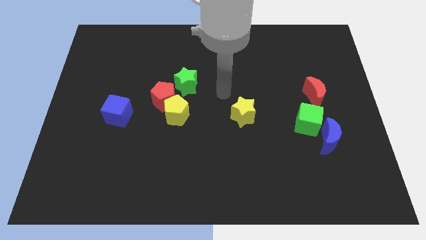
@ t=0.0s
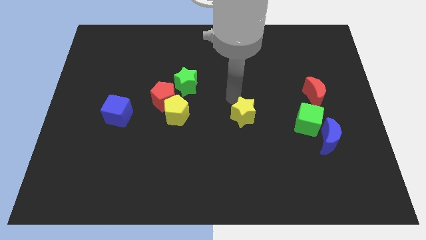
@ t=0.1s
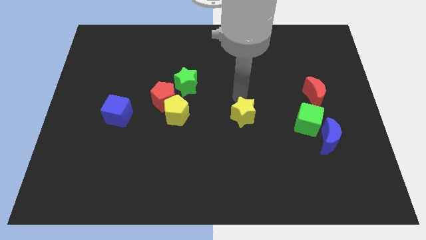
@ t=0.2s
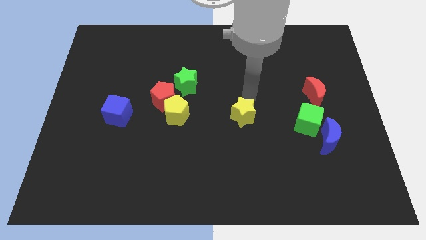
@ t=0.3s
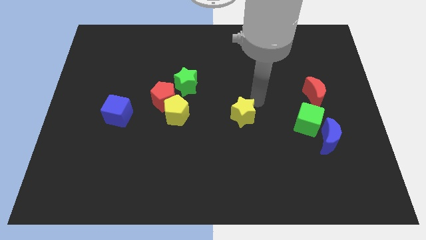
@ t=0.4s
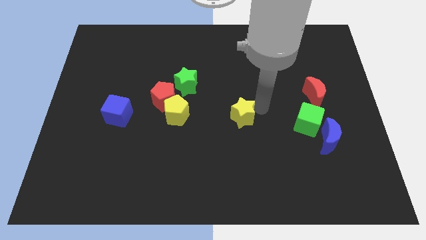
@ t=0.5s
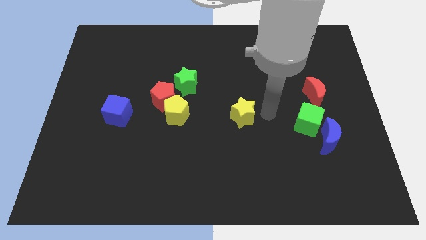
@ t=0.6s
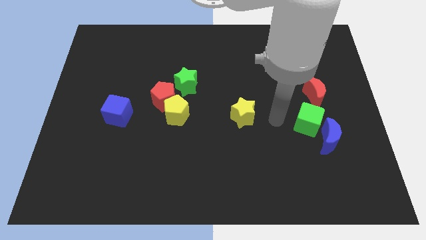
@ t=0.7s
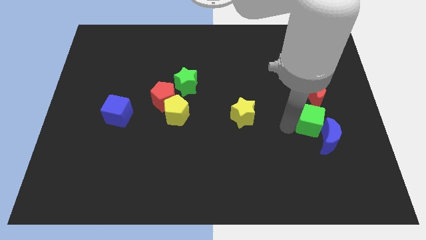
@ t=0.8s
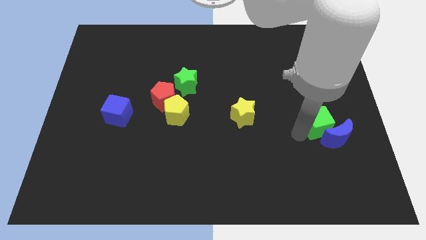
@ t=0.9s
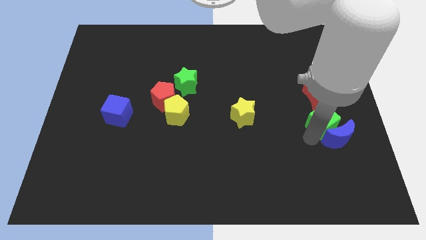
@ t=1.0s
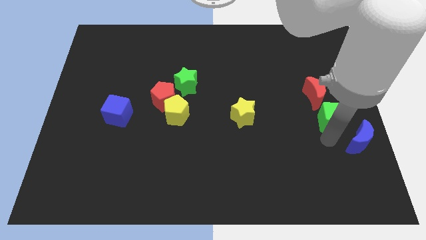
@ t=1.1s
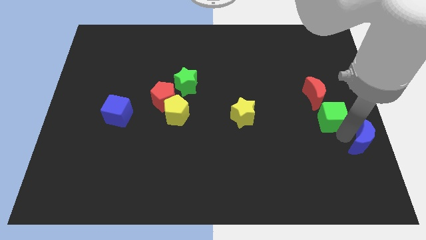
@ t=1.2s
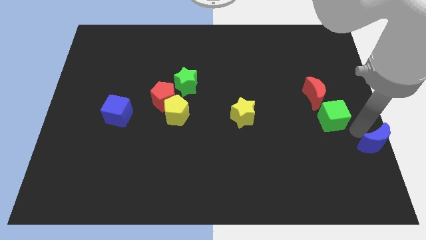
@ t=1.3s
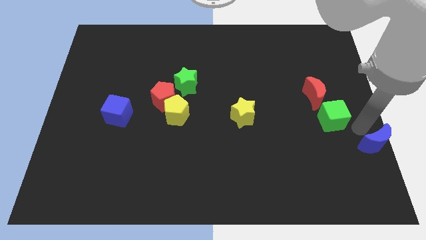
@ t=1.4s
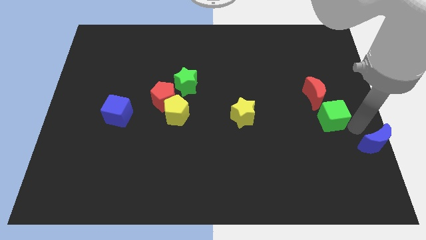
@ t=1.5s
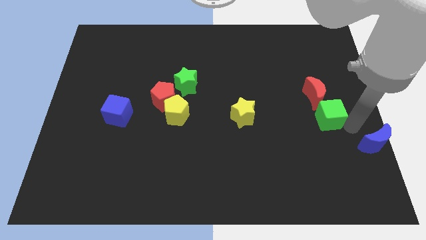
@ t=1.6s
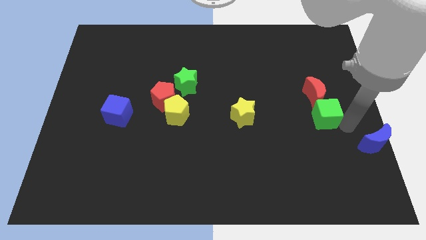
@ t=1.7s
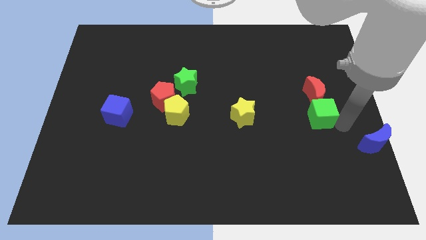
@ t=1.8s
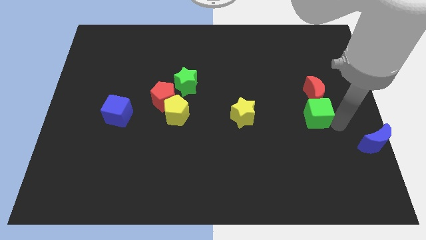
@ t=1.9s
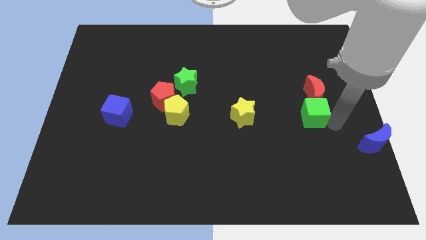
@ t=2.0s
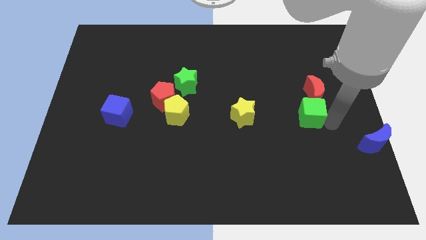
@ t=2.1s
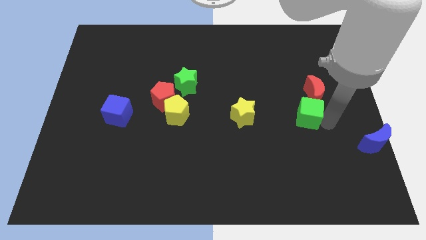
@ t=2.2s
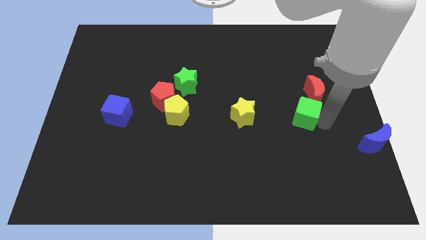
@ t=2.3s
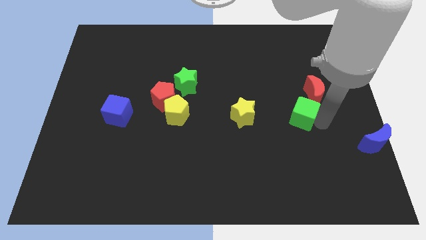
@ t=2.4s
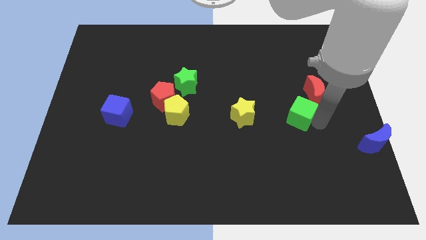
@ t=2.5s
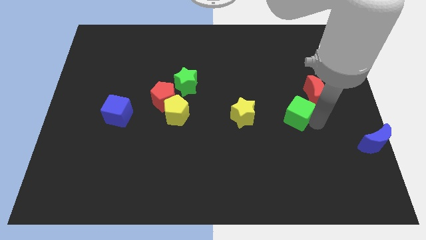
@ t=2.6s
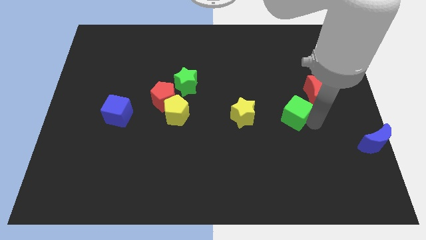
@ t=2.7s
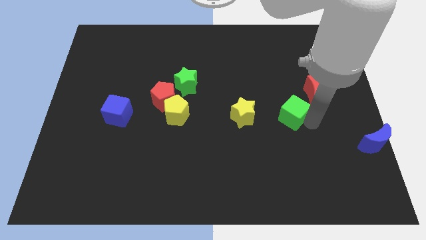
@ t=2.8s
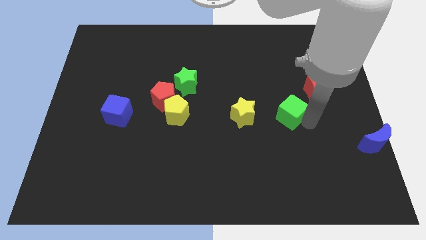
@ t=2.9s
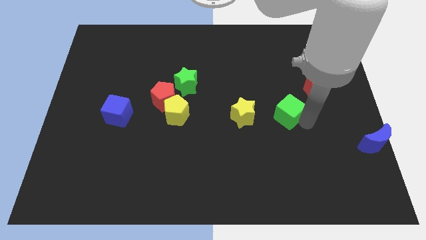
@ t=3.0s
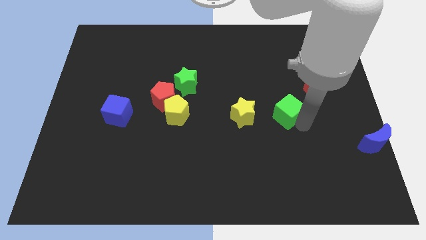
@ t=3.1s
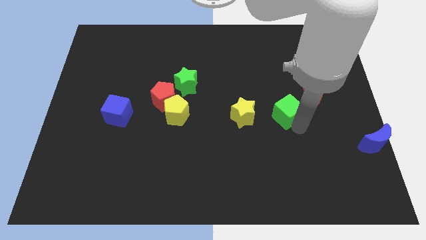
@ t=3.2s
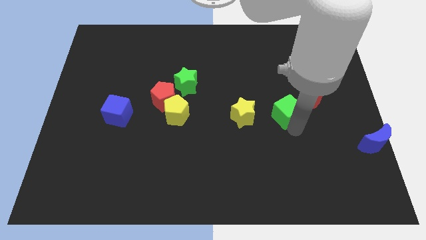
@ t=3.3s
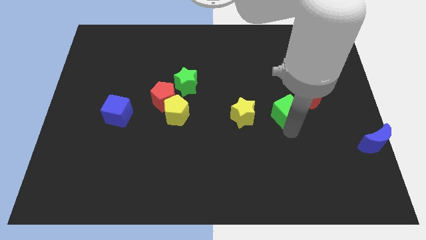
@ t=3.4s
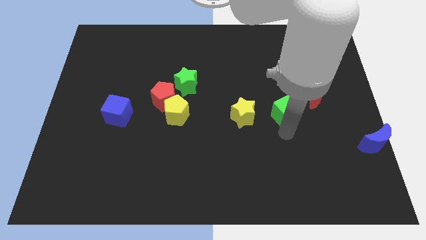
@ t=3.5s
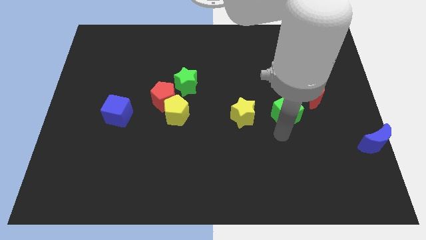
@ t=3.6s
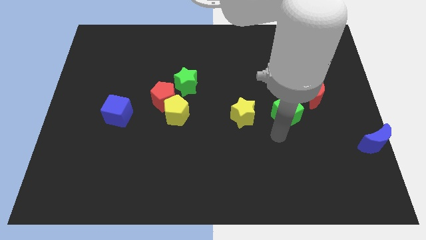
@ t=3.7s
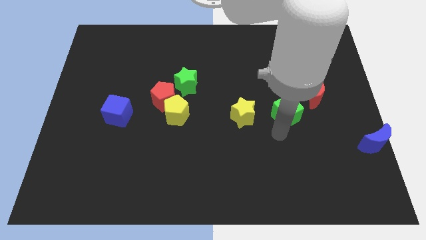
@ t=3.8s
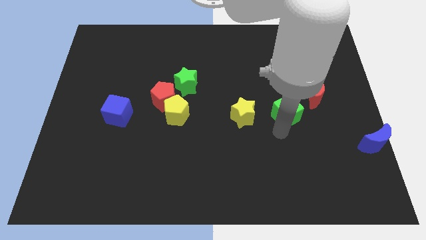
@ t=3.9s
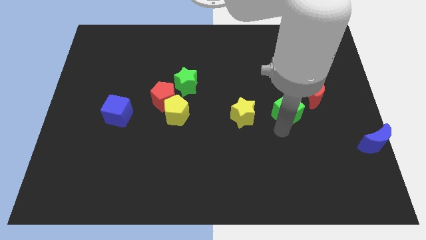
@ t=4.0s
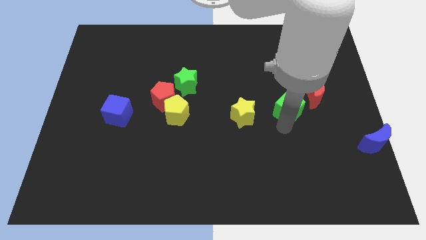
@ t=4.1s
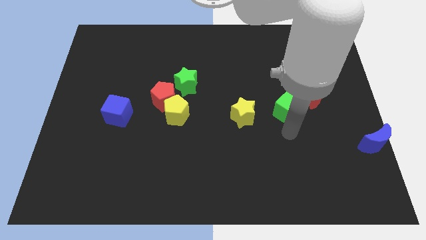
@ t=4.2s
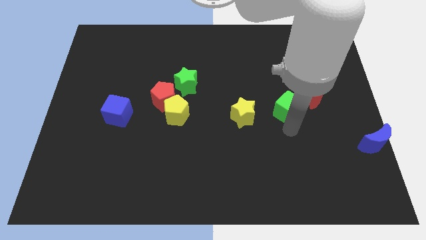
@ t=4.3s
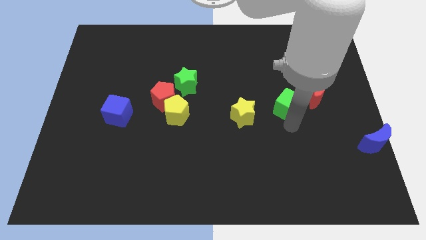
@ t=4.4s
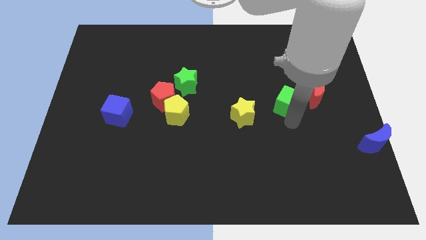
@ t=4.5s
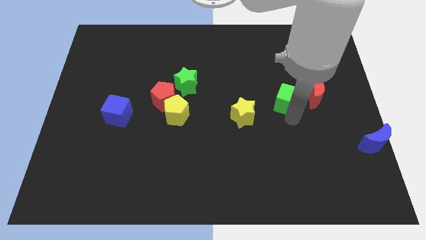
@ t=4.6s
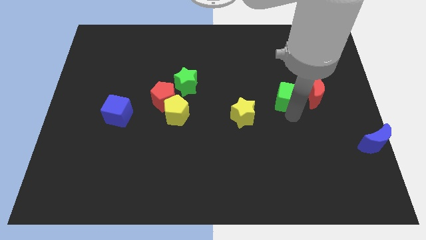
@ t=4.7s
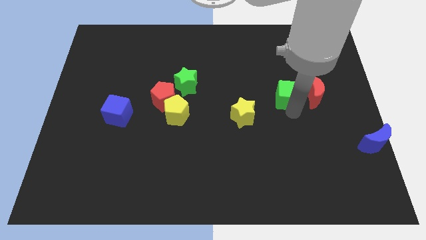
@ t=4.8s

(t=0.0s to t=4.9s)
push the green cube slightly upwards

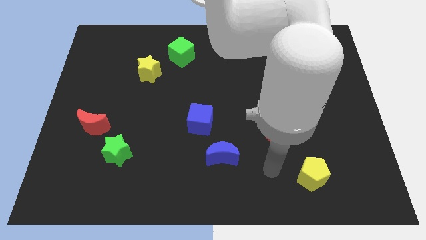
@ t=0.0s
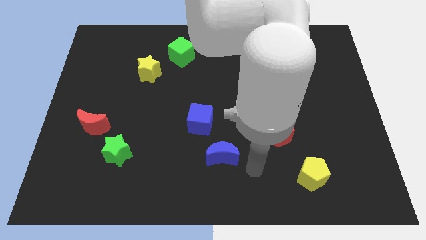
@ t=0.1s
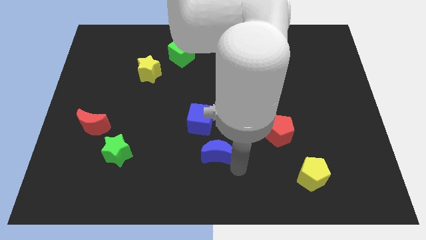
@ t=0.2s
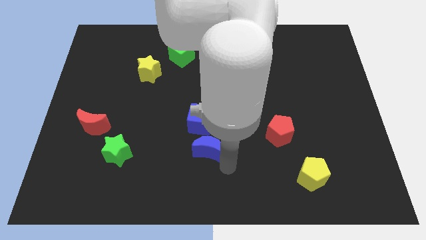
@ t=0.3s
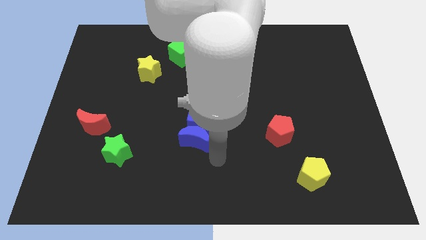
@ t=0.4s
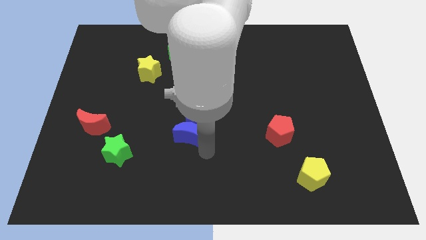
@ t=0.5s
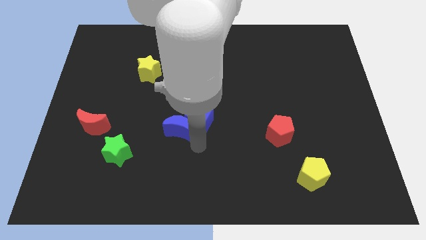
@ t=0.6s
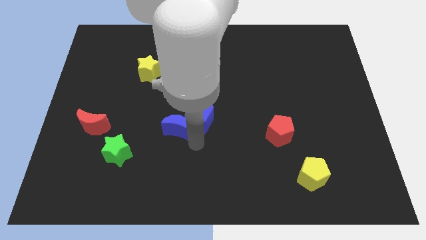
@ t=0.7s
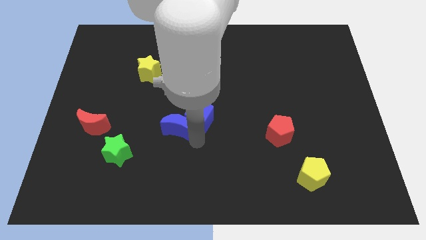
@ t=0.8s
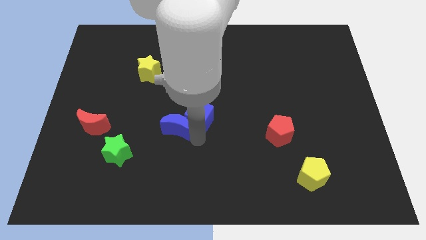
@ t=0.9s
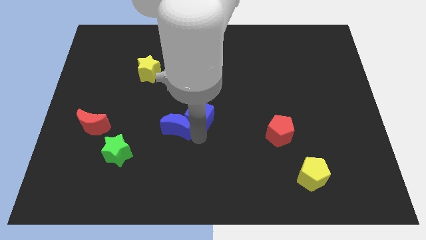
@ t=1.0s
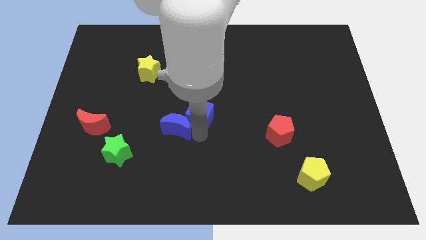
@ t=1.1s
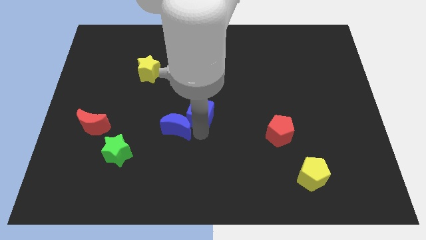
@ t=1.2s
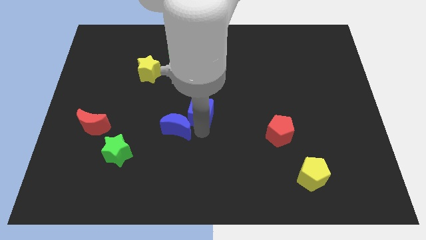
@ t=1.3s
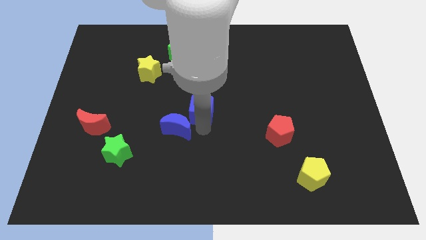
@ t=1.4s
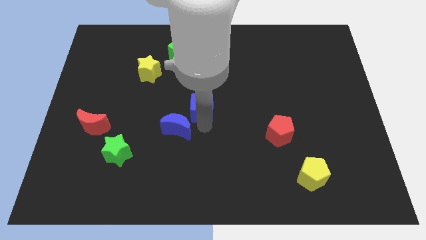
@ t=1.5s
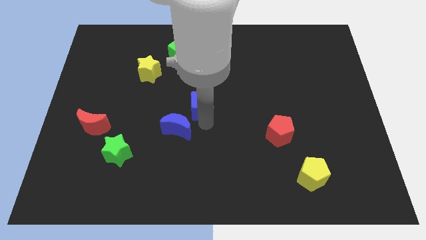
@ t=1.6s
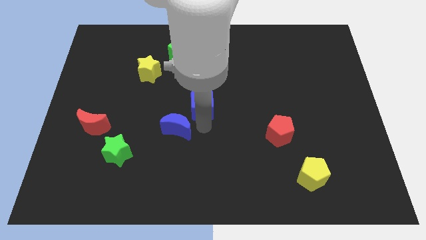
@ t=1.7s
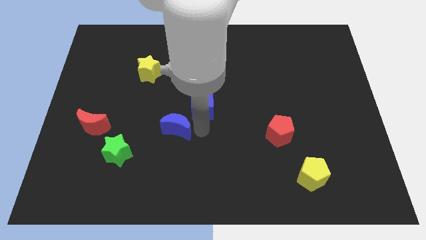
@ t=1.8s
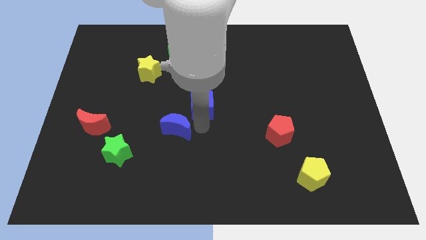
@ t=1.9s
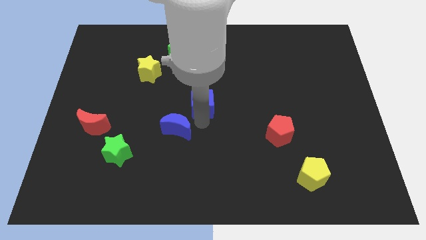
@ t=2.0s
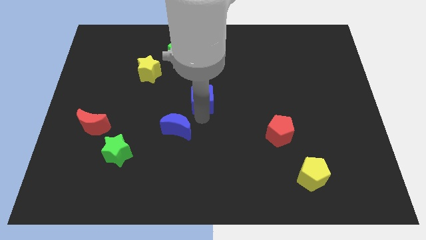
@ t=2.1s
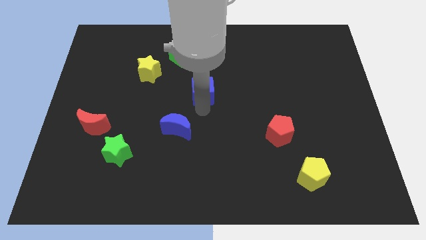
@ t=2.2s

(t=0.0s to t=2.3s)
push the blue cube somewhat up

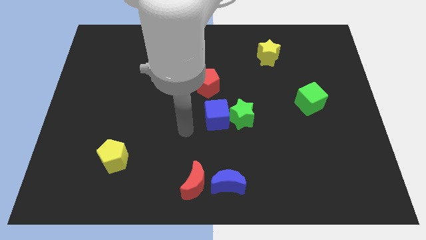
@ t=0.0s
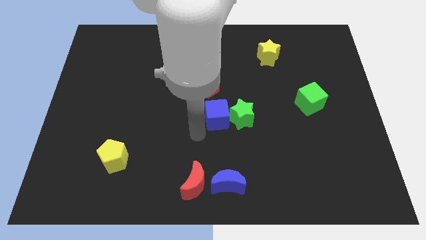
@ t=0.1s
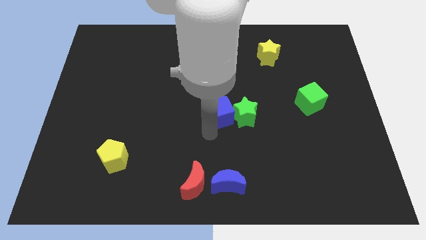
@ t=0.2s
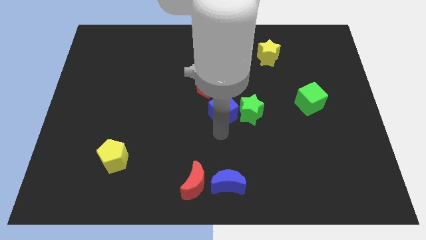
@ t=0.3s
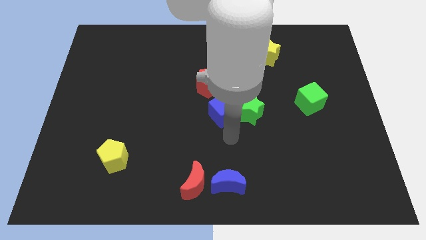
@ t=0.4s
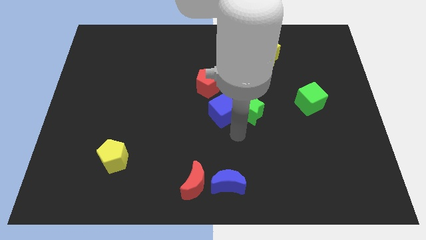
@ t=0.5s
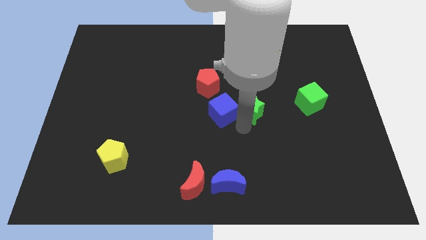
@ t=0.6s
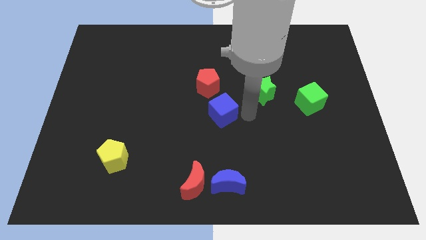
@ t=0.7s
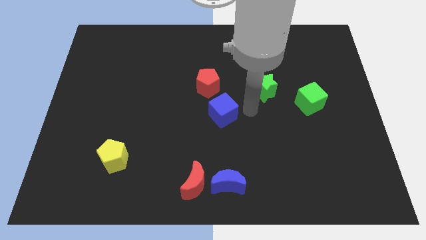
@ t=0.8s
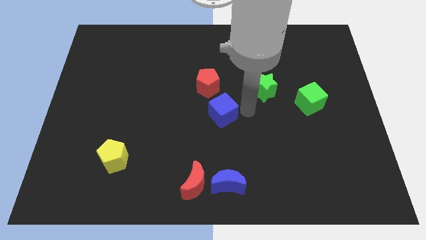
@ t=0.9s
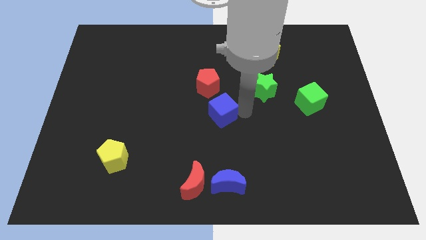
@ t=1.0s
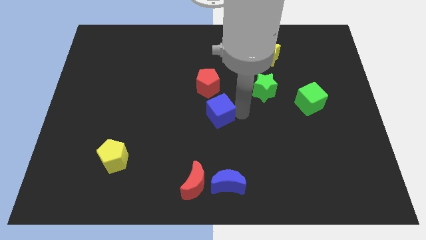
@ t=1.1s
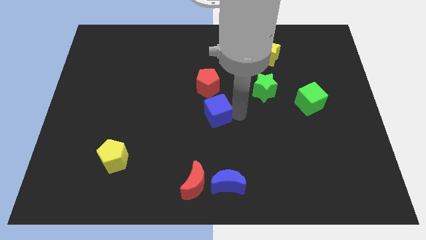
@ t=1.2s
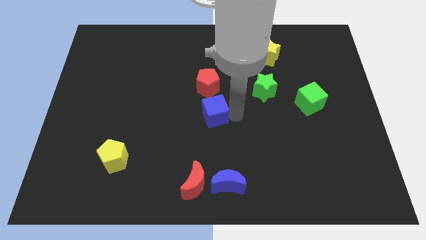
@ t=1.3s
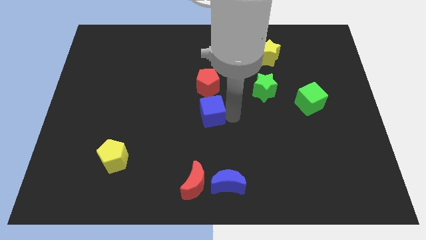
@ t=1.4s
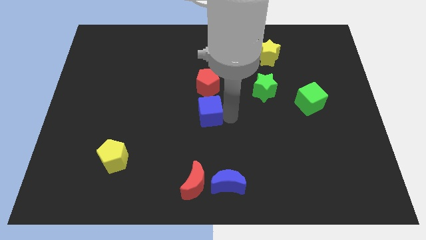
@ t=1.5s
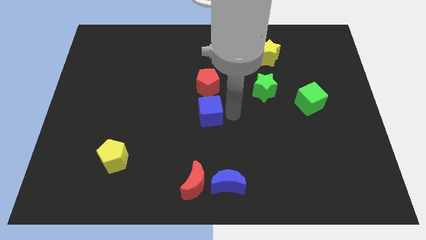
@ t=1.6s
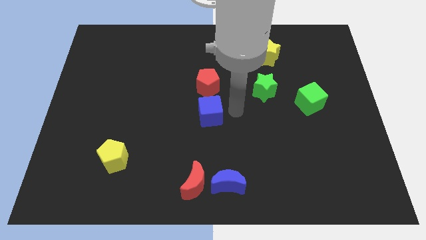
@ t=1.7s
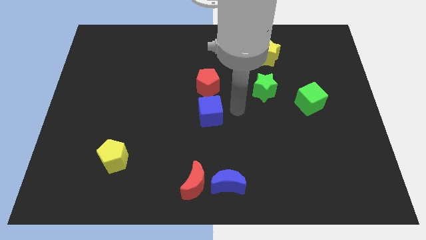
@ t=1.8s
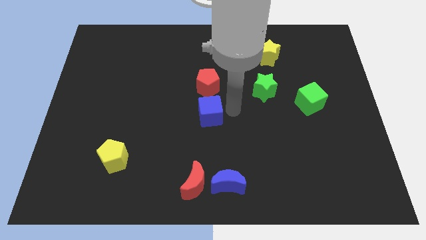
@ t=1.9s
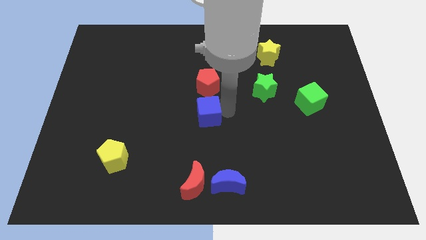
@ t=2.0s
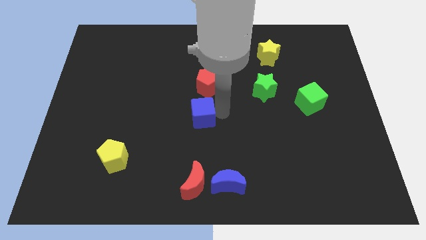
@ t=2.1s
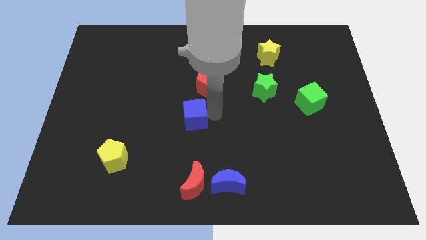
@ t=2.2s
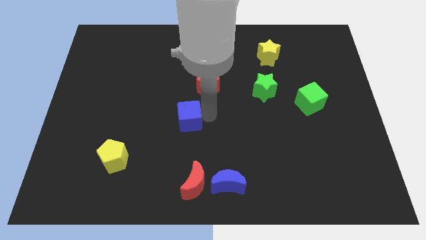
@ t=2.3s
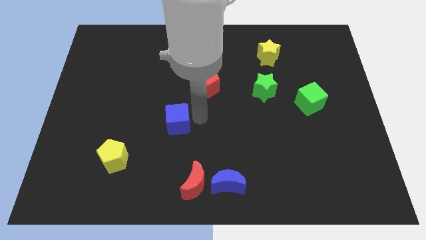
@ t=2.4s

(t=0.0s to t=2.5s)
slide the blue cube left slightly
